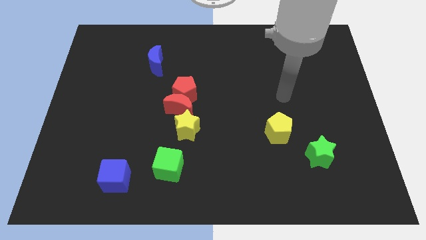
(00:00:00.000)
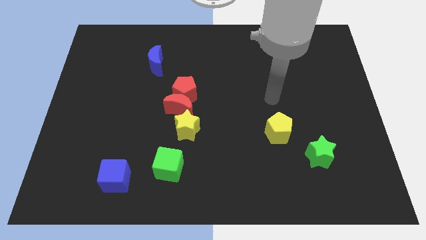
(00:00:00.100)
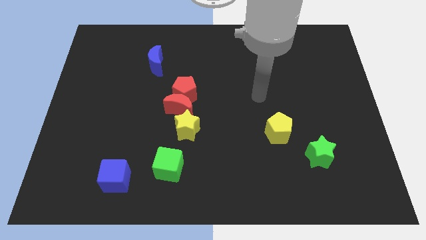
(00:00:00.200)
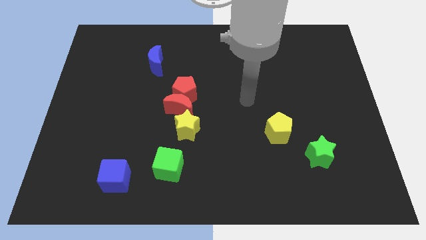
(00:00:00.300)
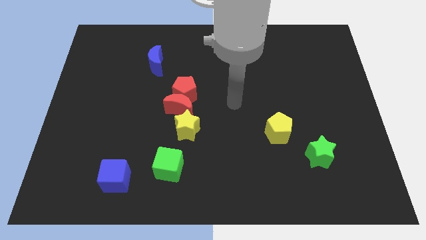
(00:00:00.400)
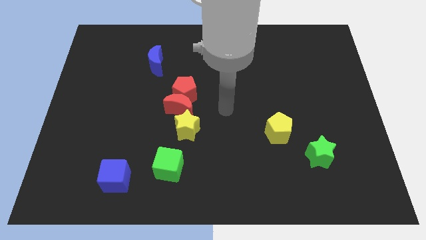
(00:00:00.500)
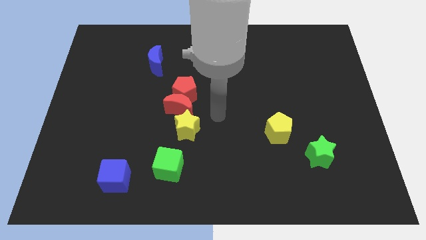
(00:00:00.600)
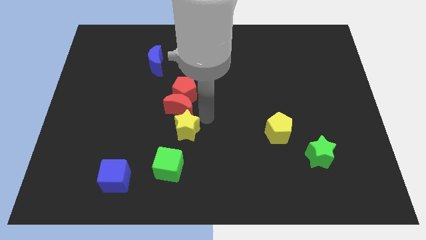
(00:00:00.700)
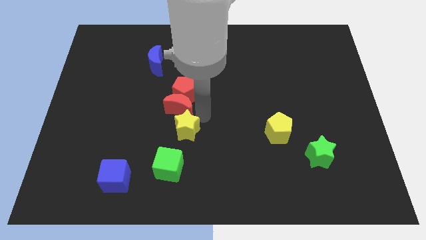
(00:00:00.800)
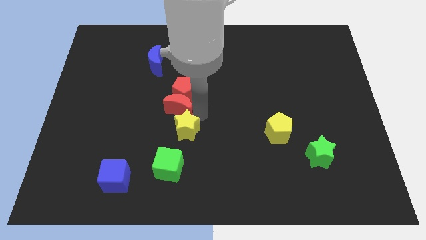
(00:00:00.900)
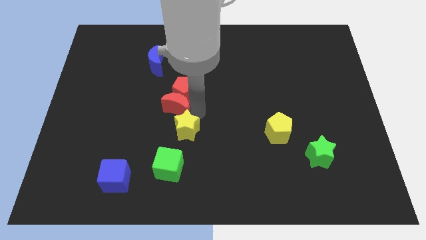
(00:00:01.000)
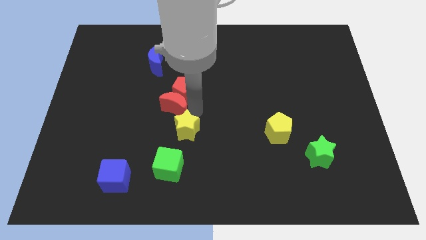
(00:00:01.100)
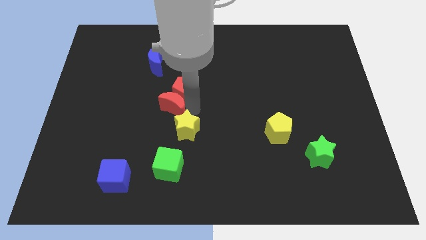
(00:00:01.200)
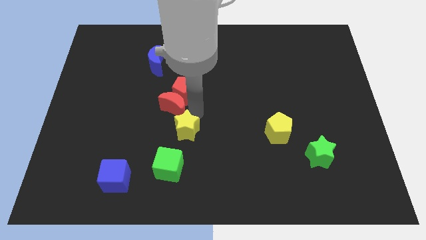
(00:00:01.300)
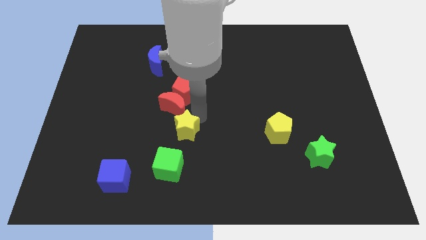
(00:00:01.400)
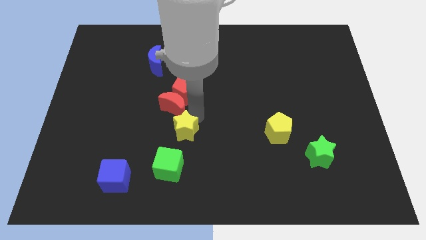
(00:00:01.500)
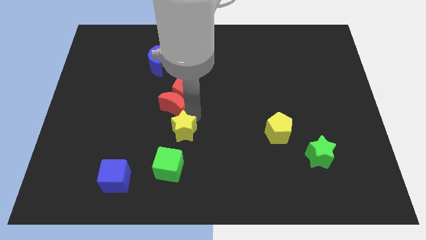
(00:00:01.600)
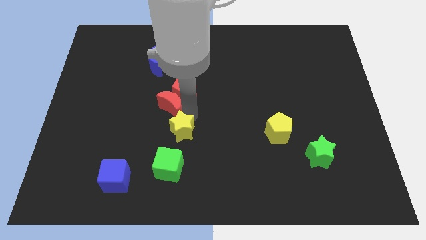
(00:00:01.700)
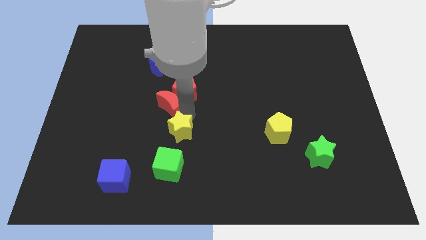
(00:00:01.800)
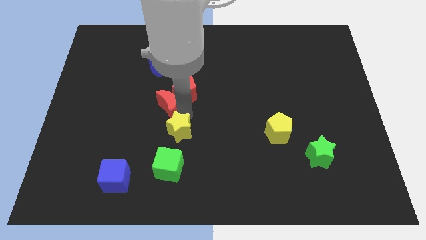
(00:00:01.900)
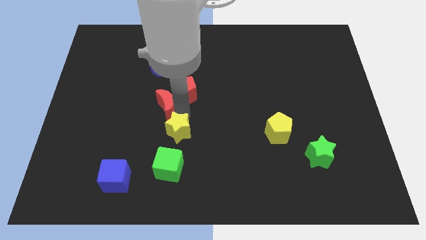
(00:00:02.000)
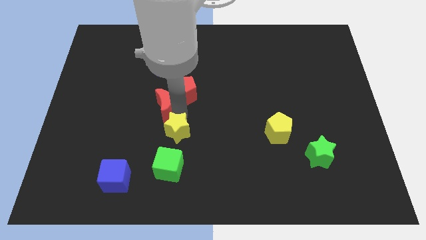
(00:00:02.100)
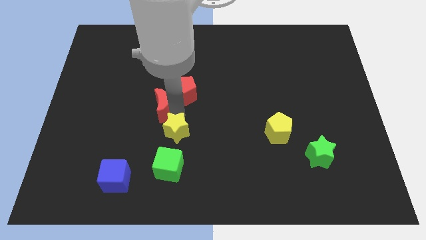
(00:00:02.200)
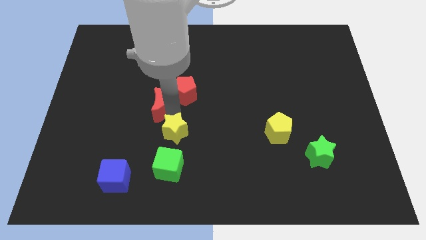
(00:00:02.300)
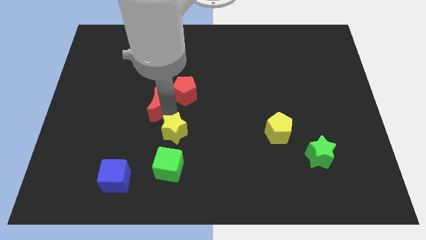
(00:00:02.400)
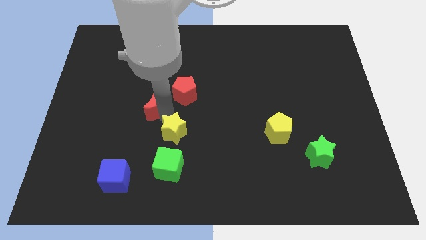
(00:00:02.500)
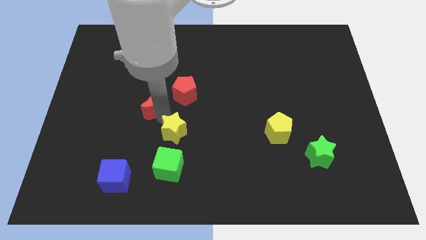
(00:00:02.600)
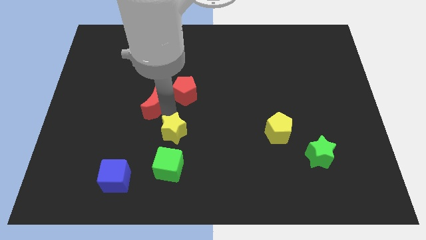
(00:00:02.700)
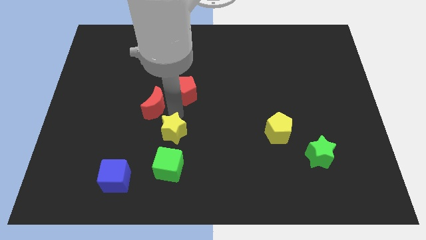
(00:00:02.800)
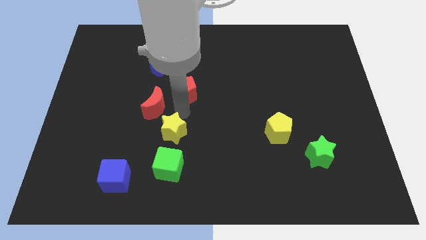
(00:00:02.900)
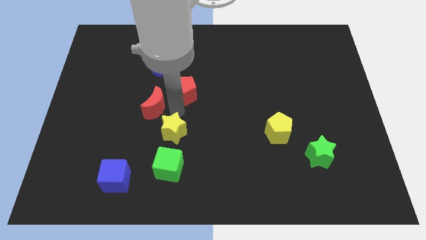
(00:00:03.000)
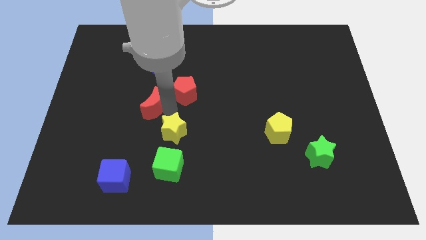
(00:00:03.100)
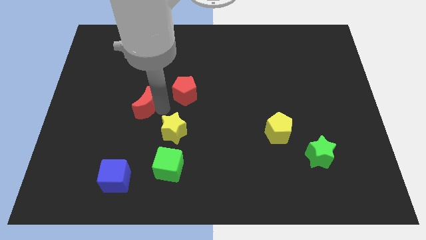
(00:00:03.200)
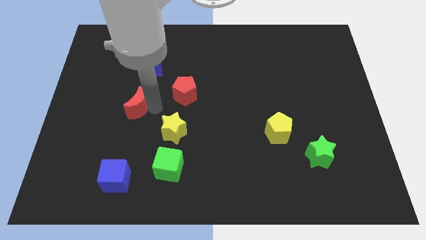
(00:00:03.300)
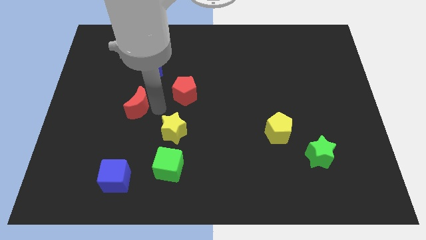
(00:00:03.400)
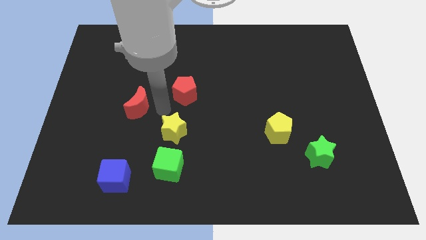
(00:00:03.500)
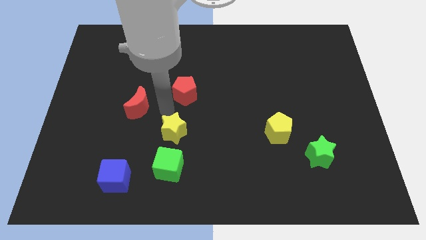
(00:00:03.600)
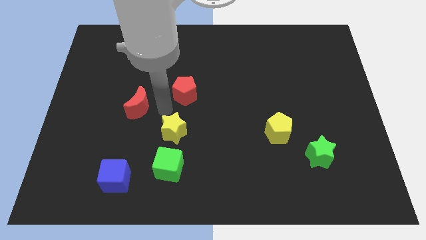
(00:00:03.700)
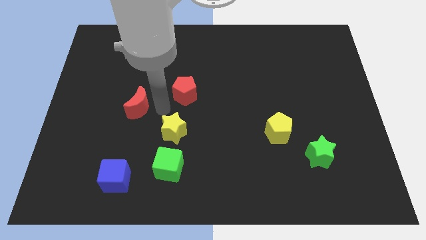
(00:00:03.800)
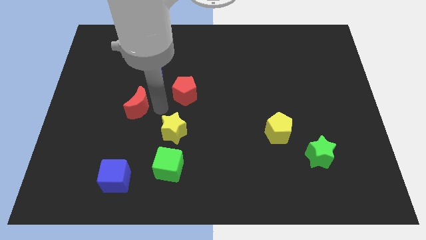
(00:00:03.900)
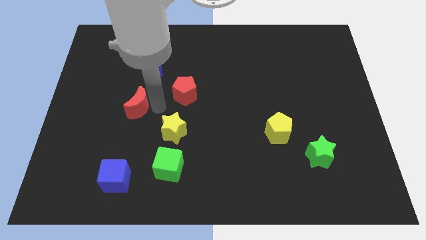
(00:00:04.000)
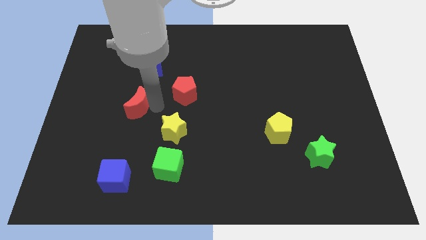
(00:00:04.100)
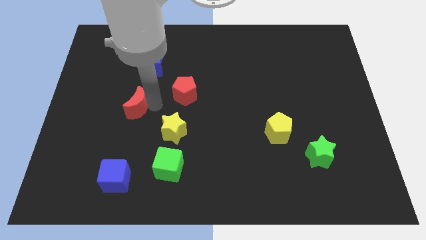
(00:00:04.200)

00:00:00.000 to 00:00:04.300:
separate the red moon from the red pentagon and yellow star

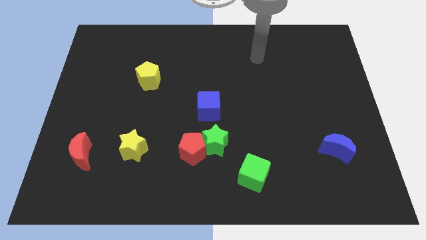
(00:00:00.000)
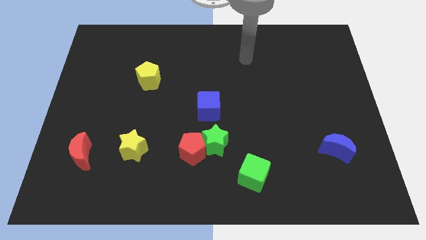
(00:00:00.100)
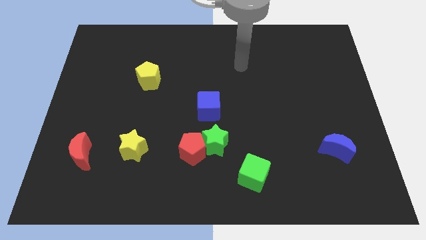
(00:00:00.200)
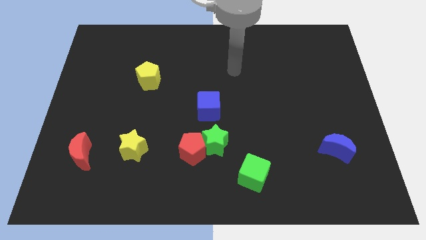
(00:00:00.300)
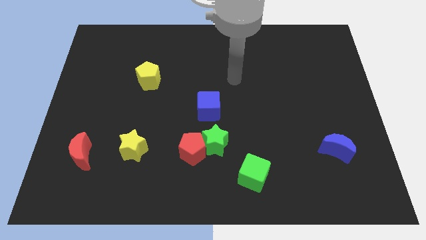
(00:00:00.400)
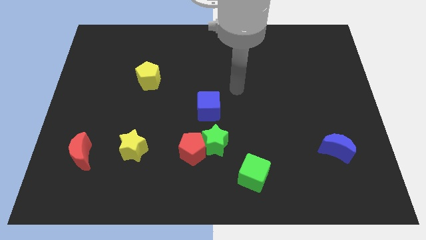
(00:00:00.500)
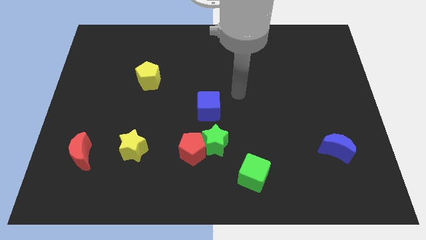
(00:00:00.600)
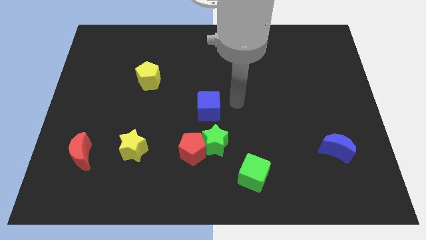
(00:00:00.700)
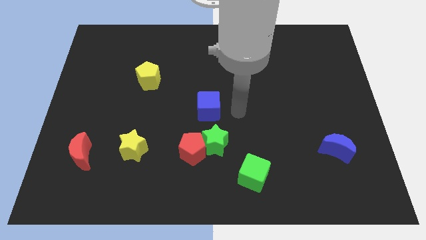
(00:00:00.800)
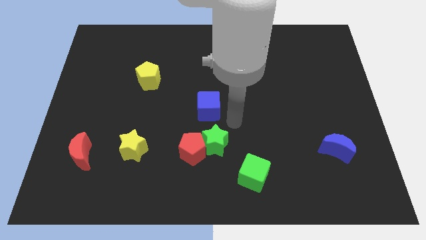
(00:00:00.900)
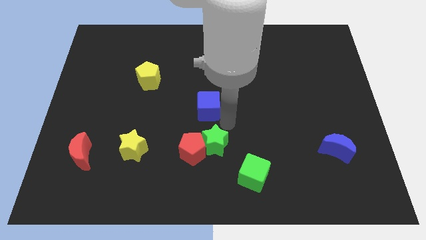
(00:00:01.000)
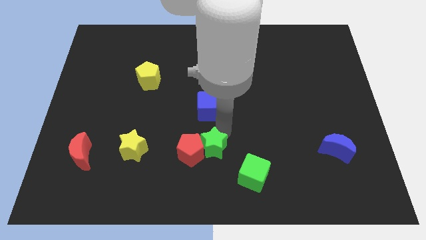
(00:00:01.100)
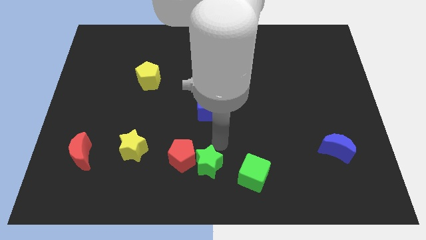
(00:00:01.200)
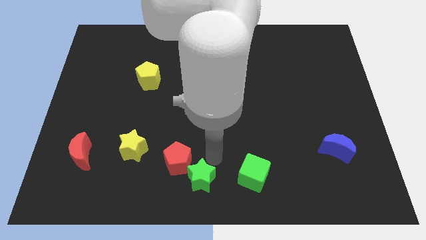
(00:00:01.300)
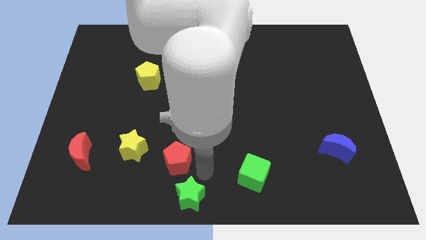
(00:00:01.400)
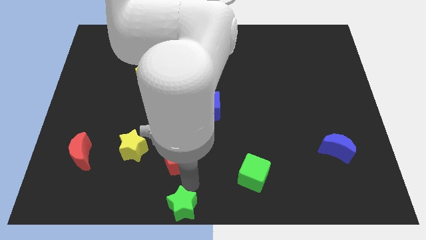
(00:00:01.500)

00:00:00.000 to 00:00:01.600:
pull the red pentagon apart from the green star

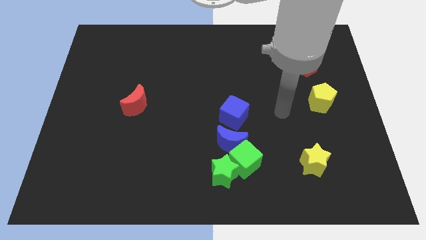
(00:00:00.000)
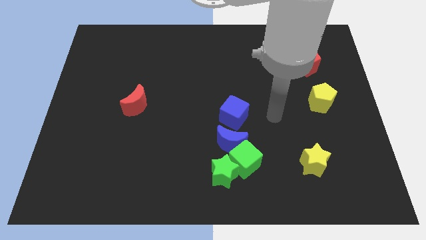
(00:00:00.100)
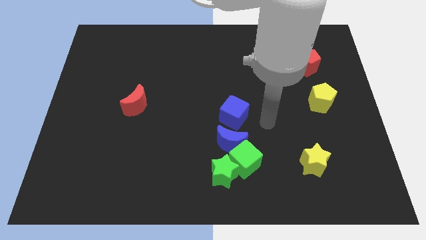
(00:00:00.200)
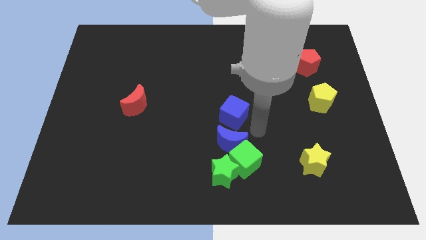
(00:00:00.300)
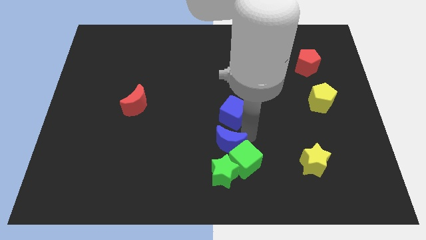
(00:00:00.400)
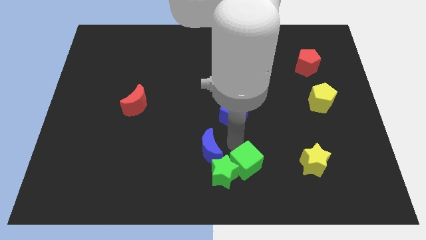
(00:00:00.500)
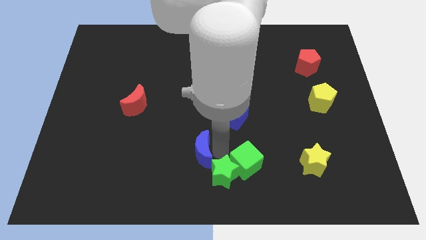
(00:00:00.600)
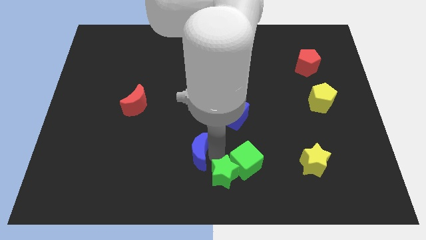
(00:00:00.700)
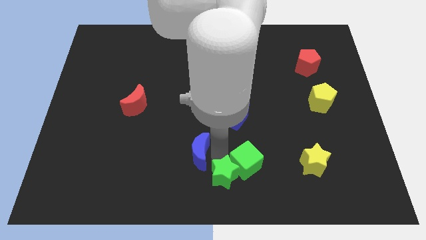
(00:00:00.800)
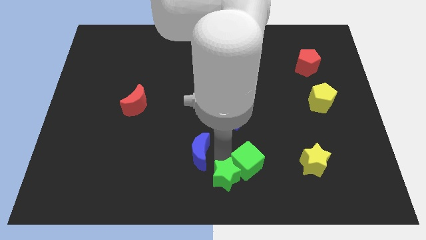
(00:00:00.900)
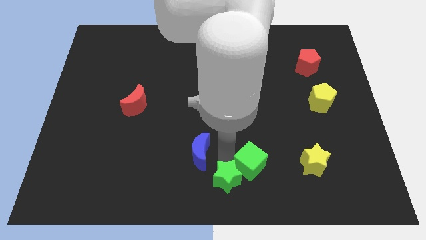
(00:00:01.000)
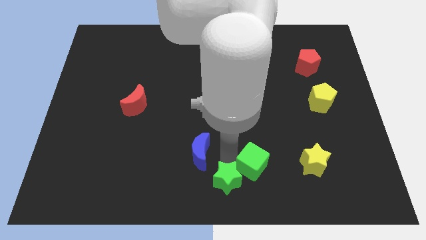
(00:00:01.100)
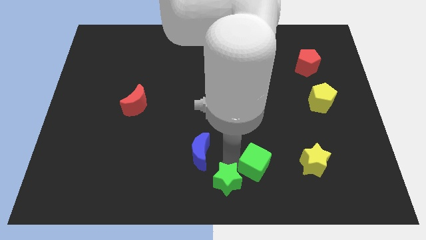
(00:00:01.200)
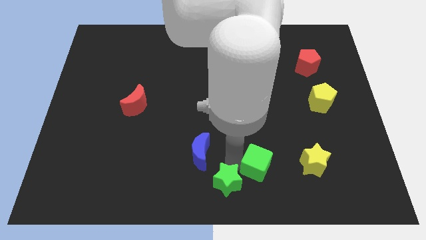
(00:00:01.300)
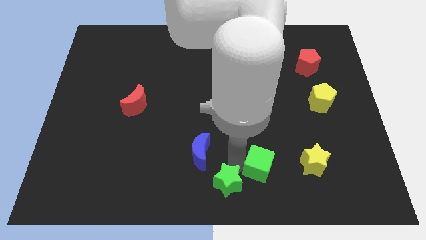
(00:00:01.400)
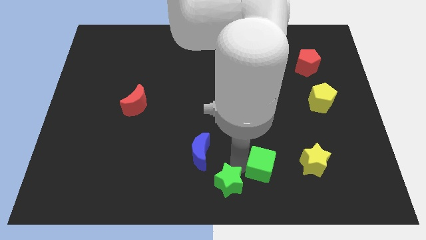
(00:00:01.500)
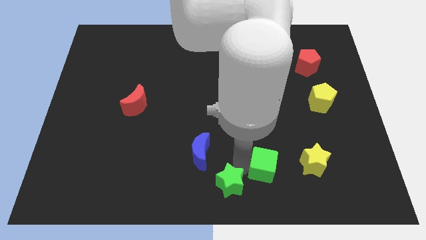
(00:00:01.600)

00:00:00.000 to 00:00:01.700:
separate the green cube from the green star and blue moon

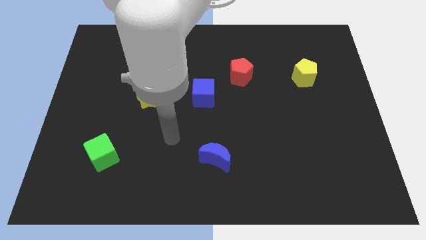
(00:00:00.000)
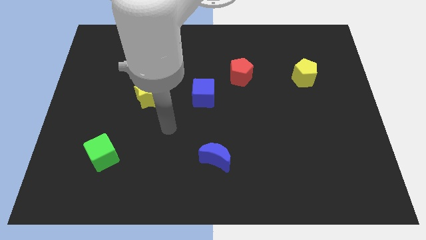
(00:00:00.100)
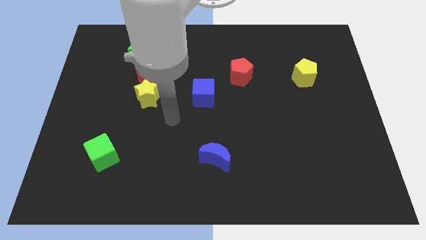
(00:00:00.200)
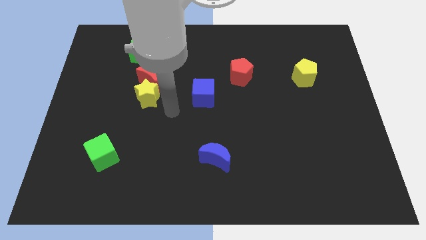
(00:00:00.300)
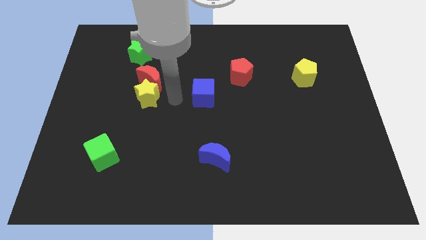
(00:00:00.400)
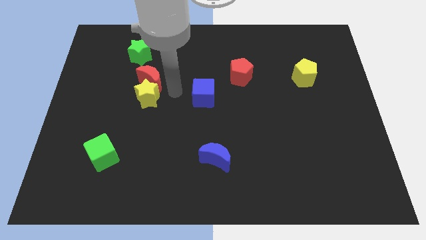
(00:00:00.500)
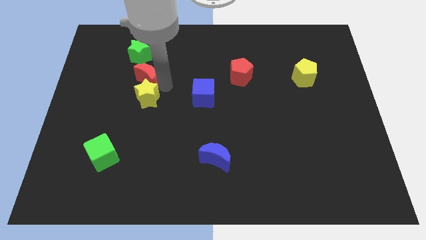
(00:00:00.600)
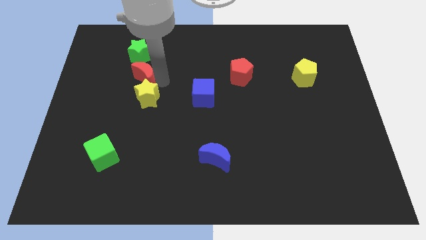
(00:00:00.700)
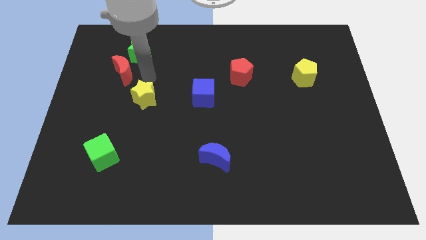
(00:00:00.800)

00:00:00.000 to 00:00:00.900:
pull the yellow star apart from the red moon

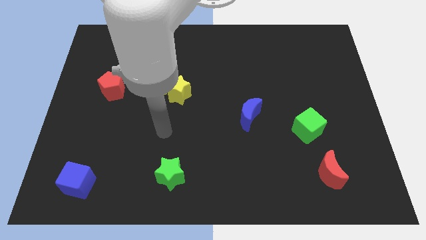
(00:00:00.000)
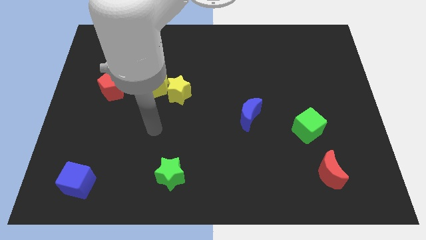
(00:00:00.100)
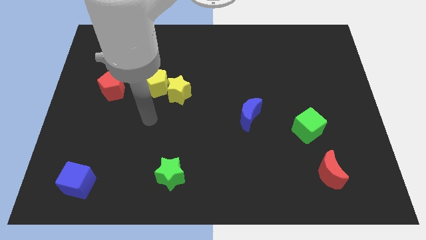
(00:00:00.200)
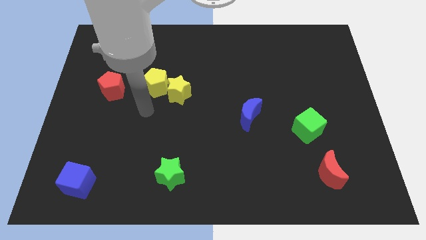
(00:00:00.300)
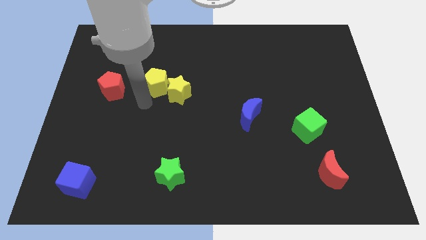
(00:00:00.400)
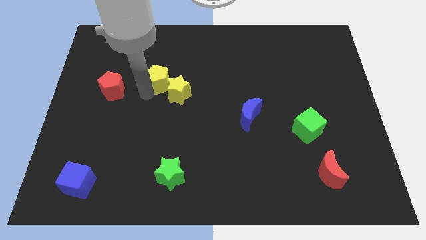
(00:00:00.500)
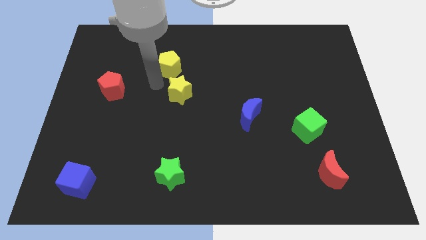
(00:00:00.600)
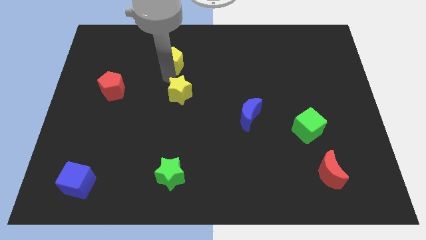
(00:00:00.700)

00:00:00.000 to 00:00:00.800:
separate the yellow star from the yellow pentagon
